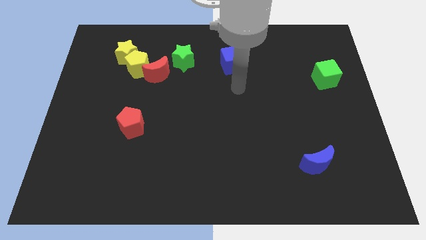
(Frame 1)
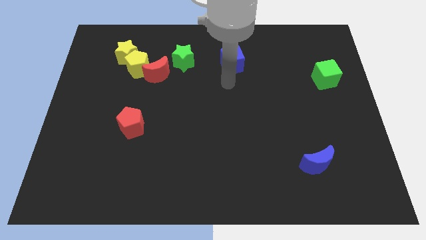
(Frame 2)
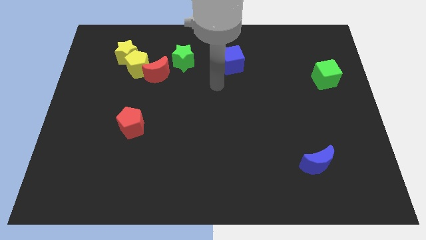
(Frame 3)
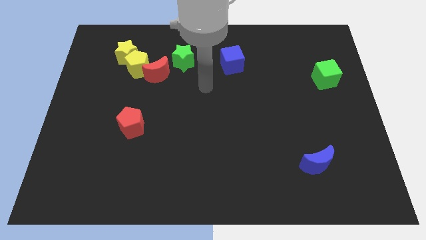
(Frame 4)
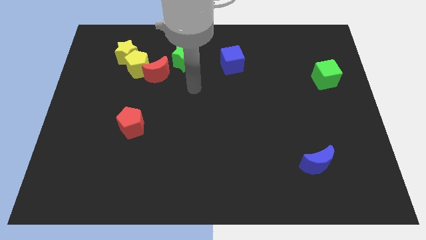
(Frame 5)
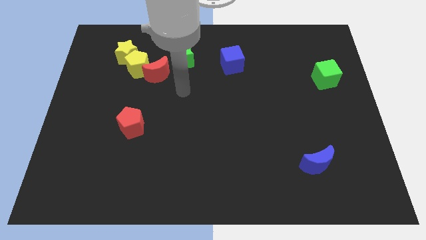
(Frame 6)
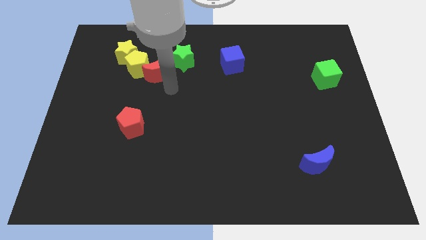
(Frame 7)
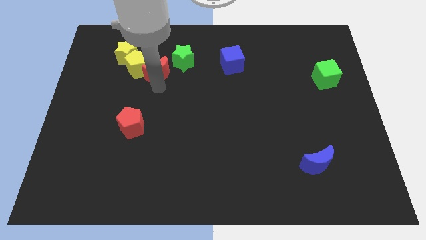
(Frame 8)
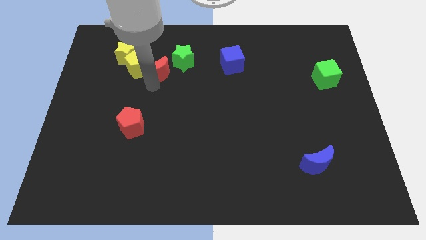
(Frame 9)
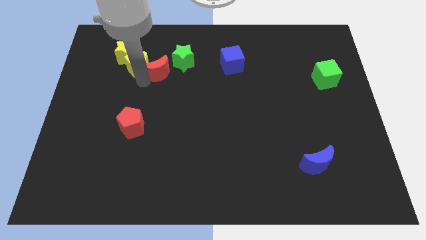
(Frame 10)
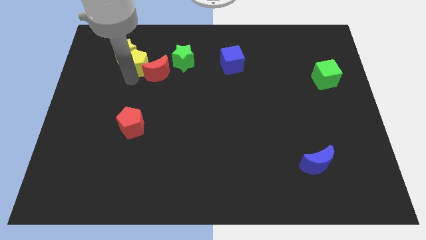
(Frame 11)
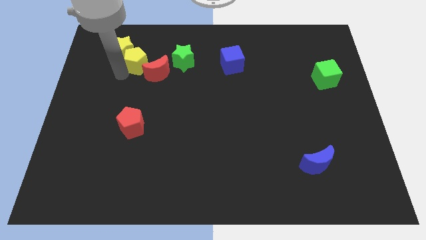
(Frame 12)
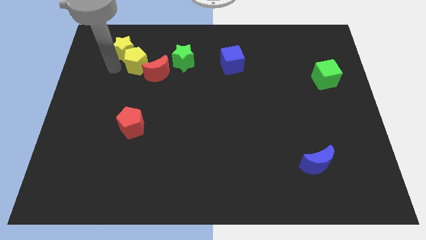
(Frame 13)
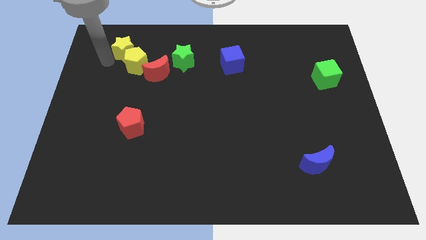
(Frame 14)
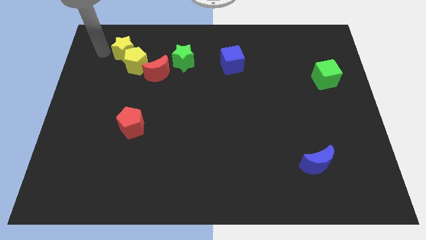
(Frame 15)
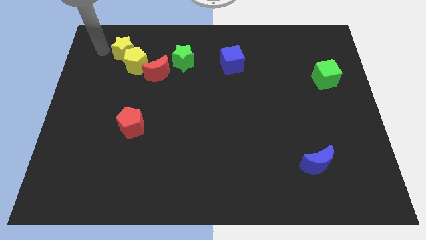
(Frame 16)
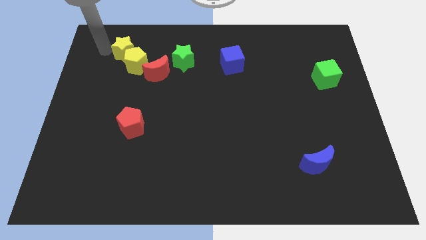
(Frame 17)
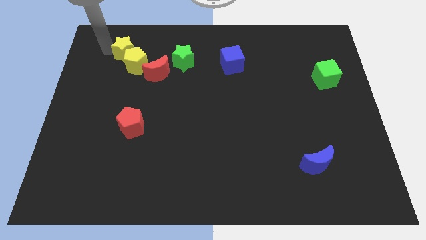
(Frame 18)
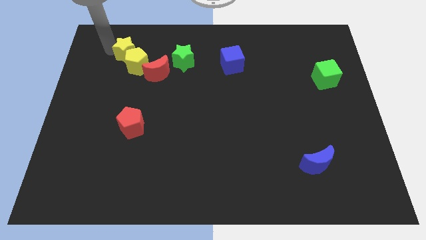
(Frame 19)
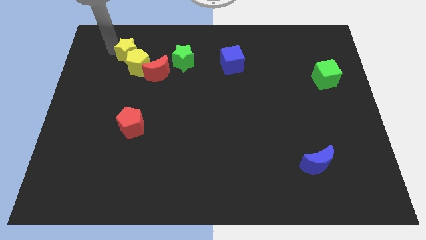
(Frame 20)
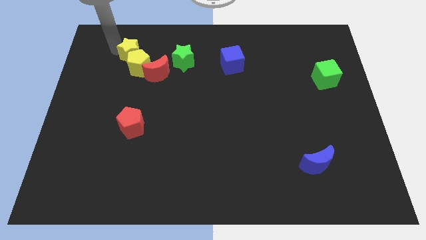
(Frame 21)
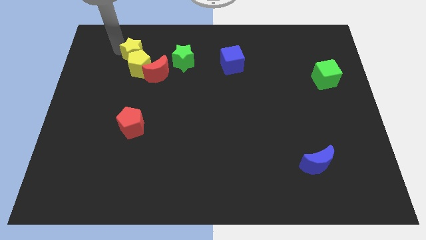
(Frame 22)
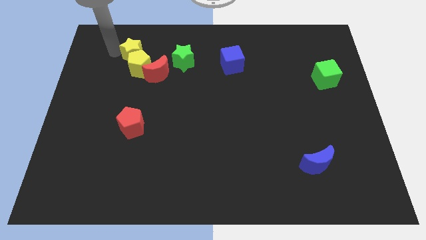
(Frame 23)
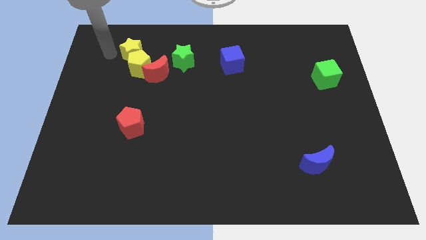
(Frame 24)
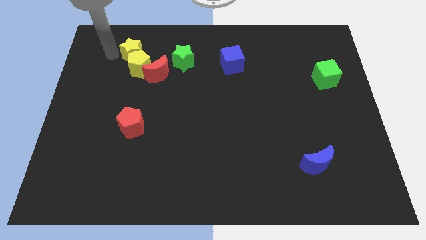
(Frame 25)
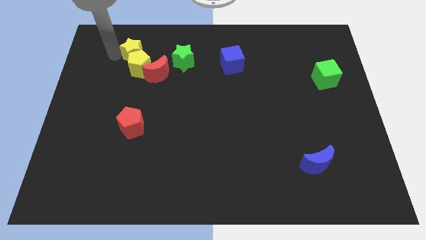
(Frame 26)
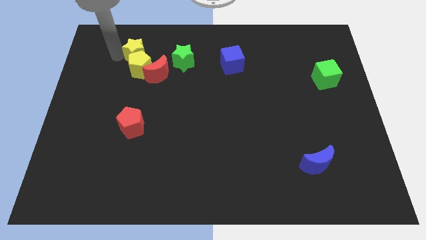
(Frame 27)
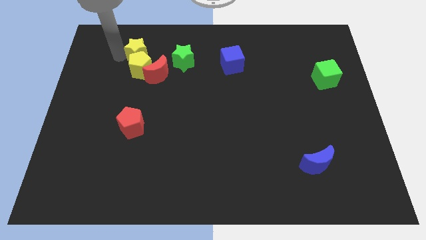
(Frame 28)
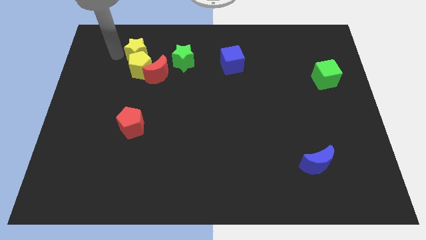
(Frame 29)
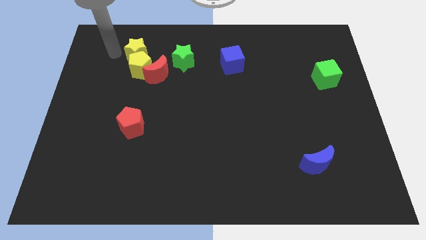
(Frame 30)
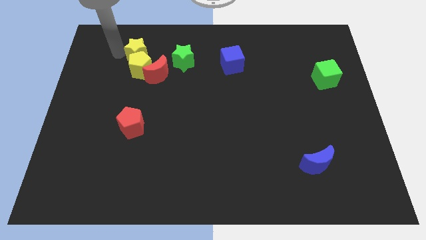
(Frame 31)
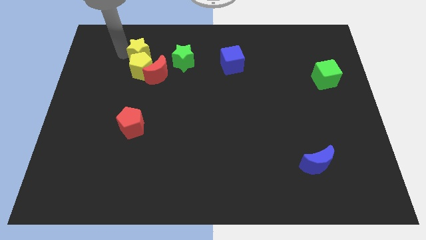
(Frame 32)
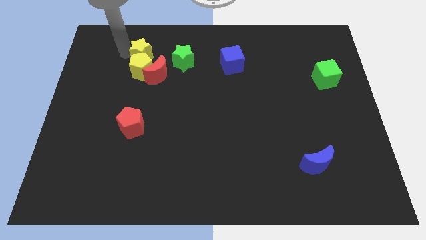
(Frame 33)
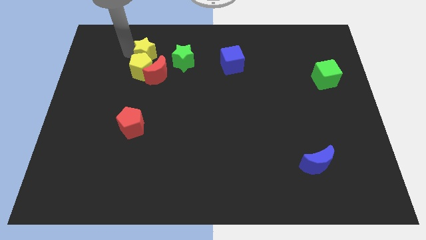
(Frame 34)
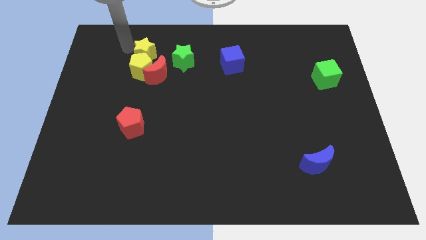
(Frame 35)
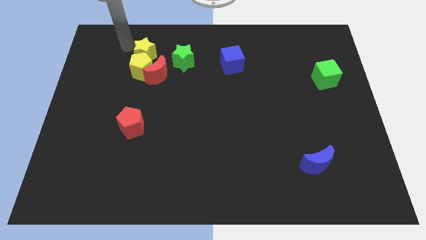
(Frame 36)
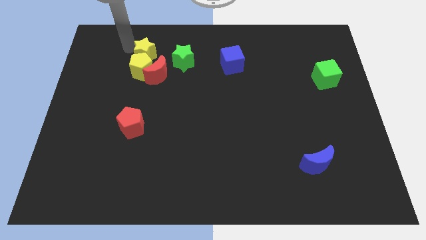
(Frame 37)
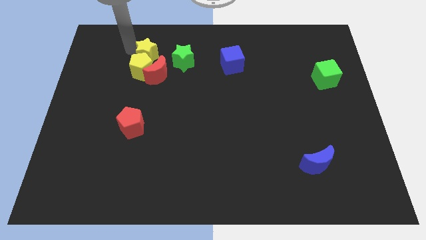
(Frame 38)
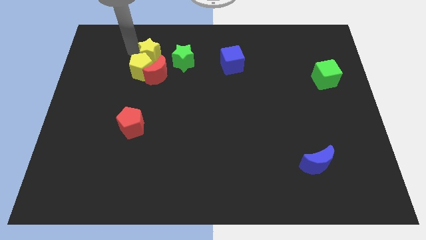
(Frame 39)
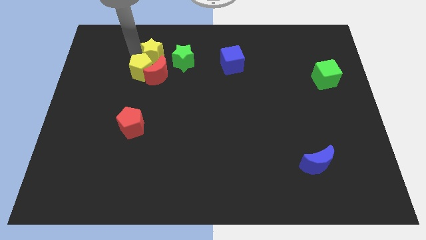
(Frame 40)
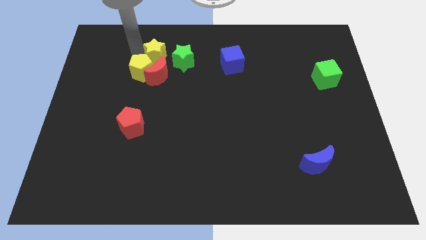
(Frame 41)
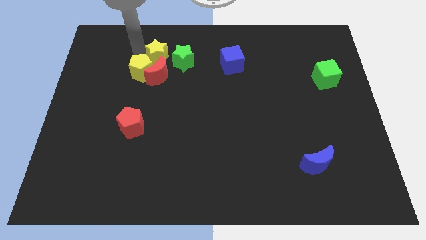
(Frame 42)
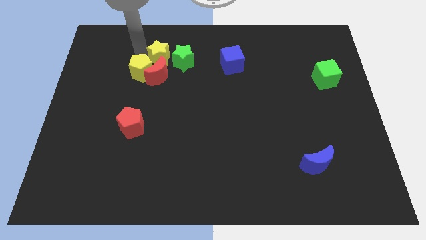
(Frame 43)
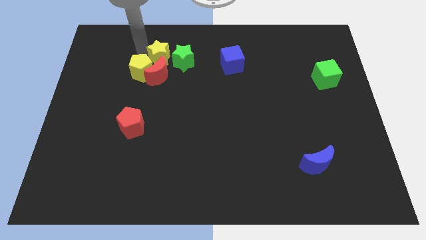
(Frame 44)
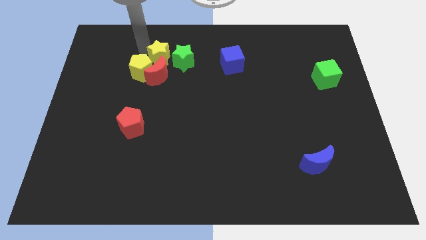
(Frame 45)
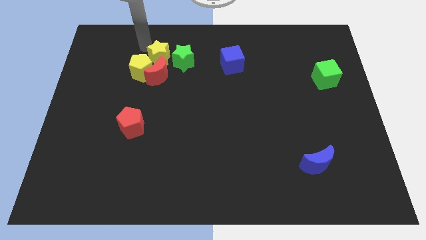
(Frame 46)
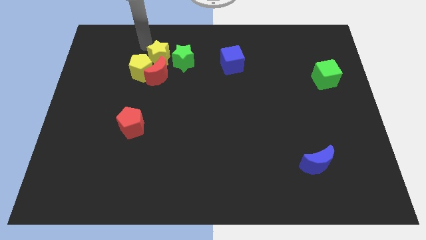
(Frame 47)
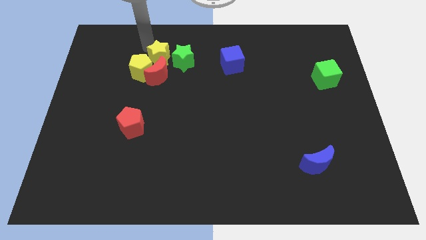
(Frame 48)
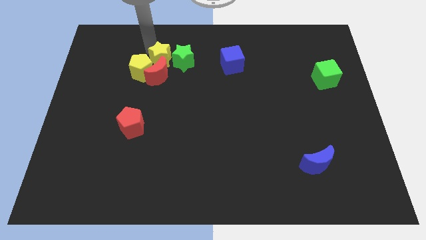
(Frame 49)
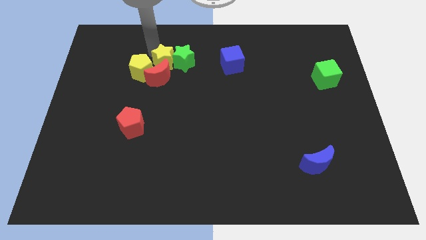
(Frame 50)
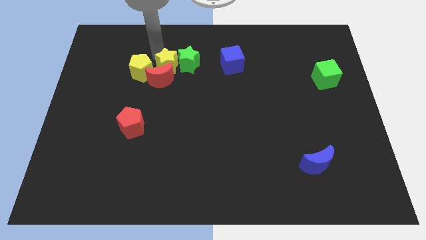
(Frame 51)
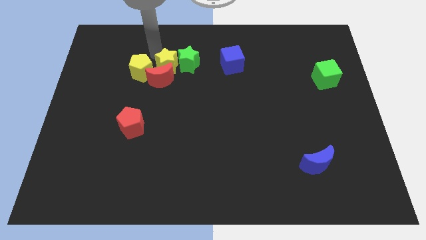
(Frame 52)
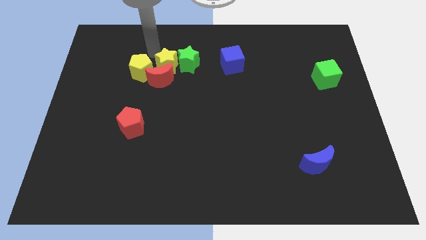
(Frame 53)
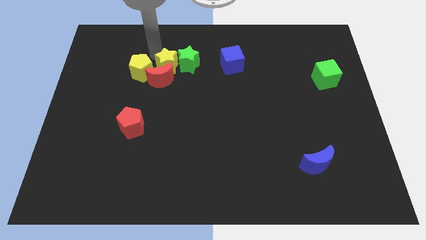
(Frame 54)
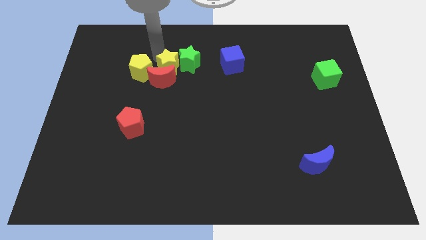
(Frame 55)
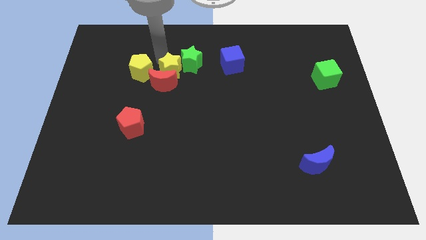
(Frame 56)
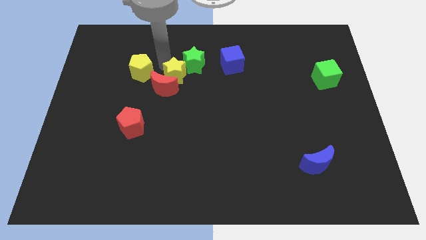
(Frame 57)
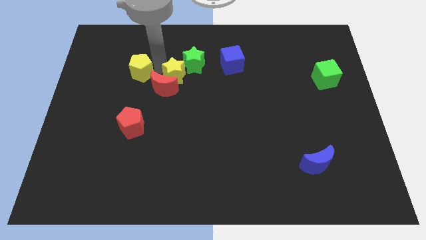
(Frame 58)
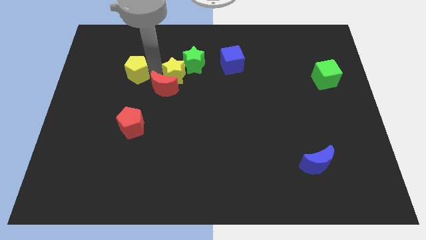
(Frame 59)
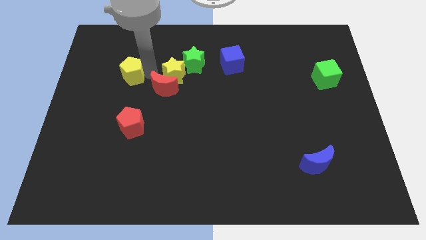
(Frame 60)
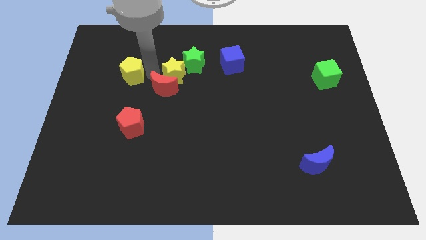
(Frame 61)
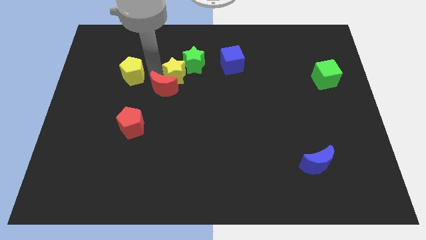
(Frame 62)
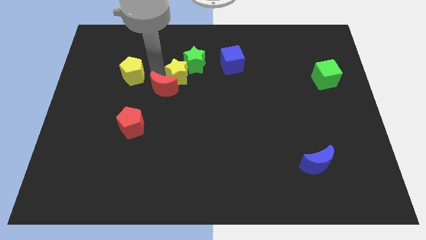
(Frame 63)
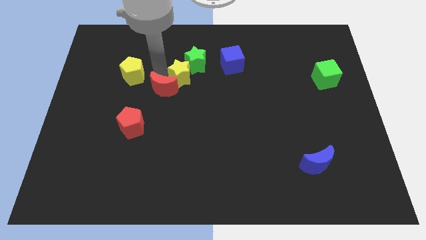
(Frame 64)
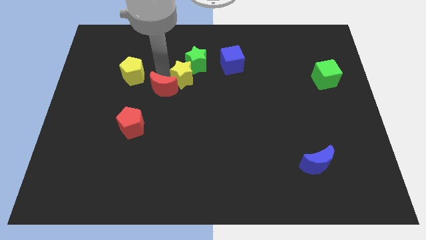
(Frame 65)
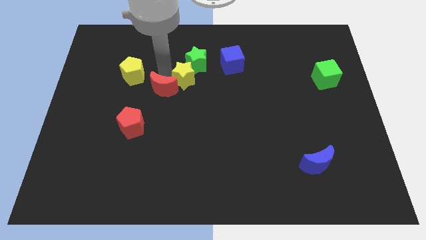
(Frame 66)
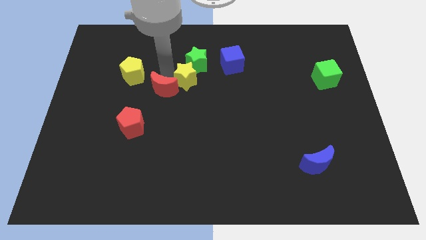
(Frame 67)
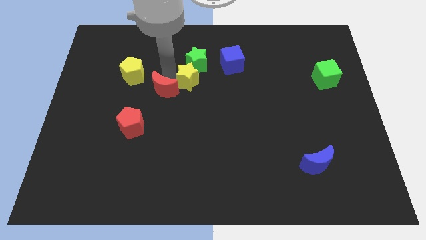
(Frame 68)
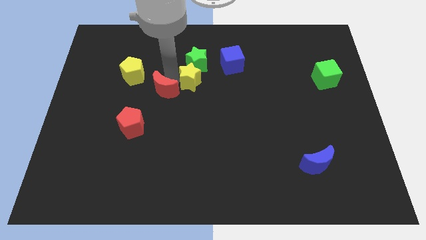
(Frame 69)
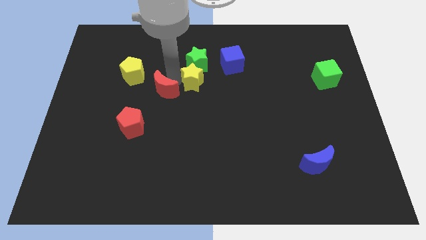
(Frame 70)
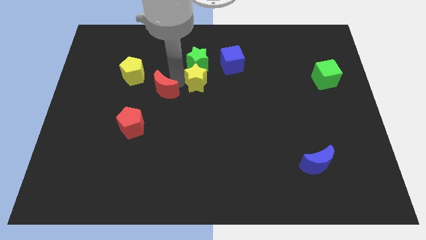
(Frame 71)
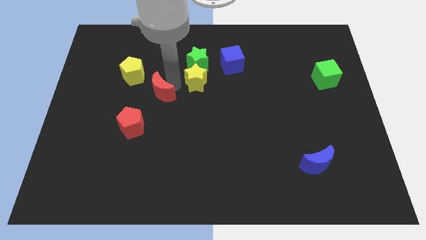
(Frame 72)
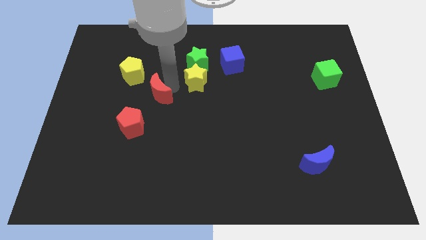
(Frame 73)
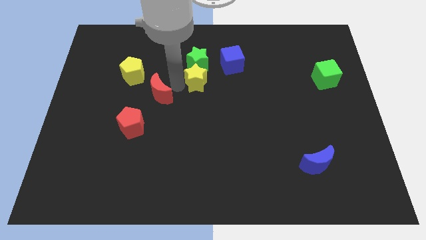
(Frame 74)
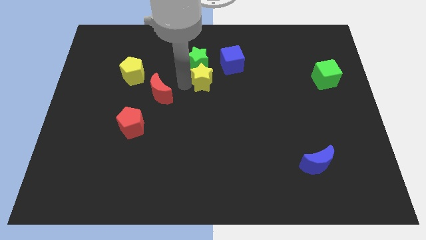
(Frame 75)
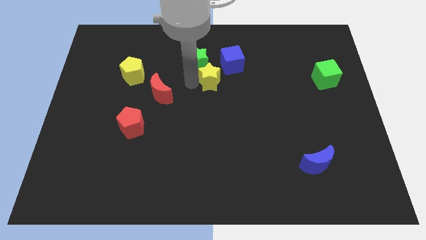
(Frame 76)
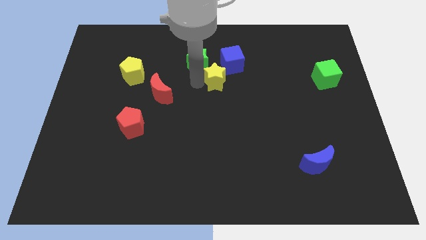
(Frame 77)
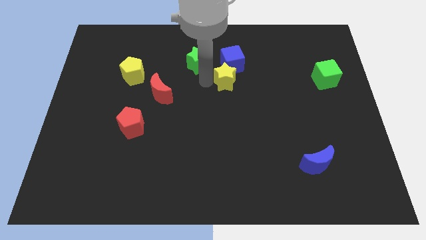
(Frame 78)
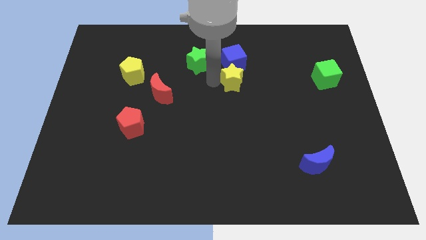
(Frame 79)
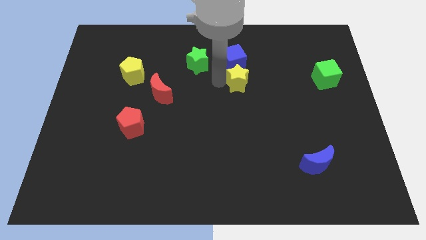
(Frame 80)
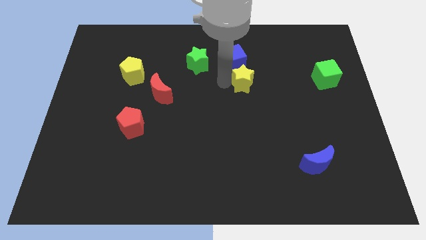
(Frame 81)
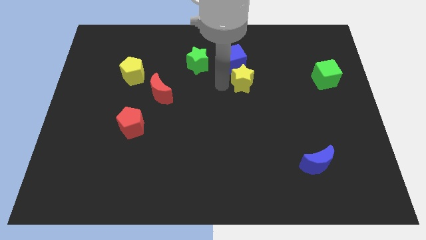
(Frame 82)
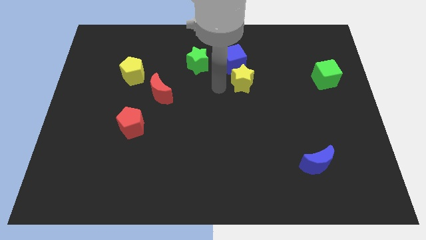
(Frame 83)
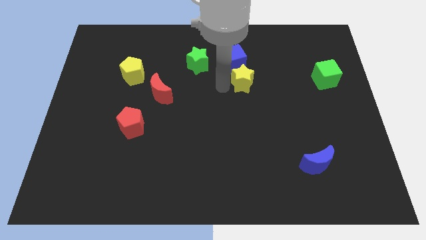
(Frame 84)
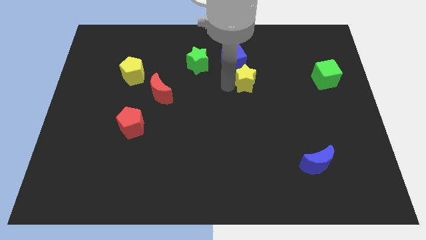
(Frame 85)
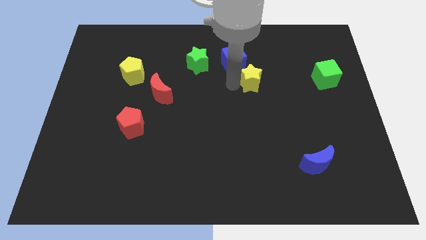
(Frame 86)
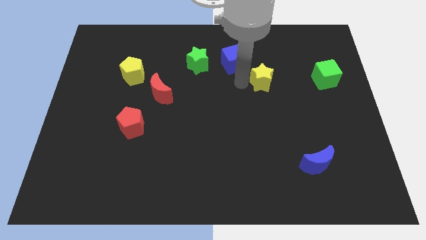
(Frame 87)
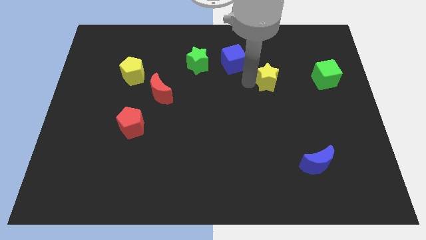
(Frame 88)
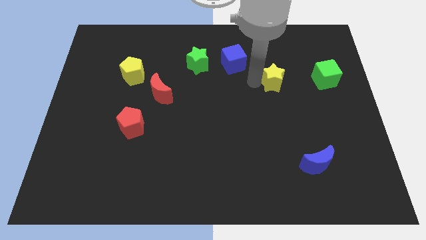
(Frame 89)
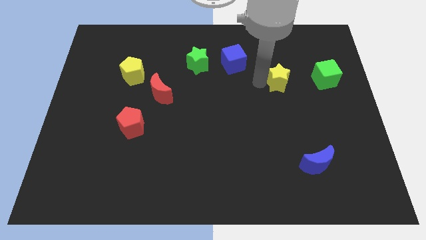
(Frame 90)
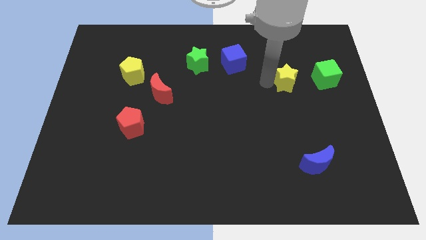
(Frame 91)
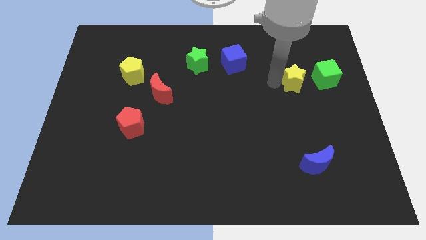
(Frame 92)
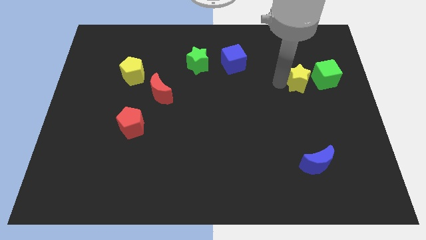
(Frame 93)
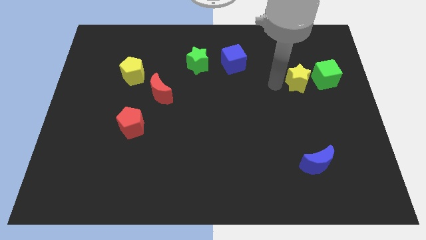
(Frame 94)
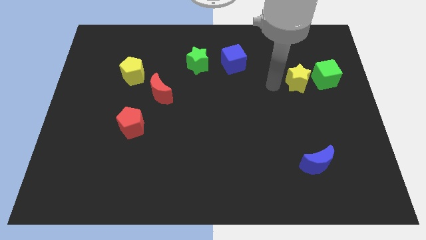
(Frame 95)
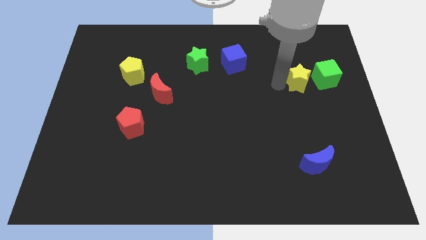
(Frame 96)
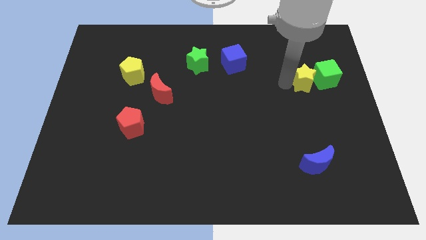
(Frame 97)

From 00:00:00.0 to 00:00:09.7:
move the yellow star towards the green cube
